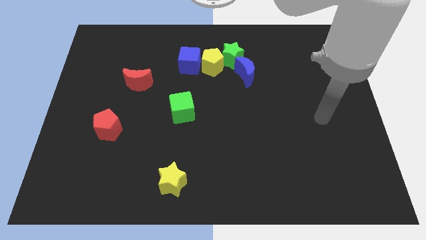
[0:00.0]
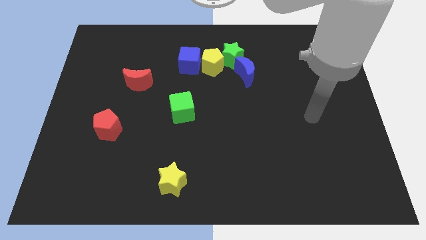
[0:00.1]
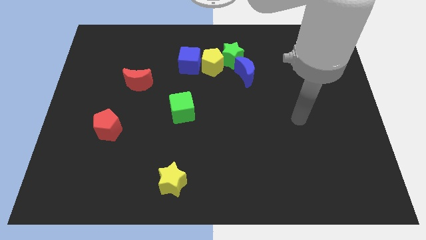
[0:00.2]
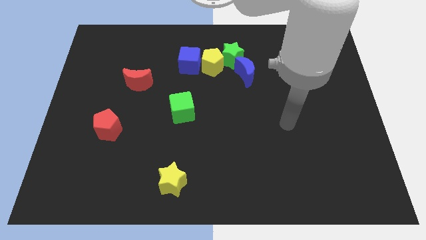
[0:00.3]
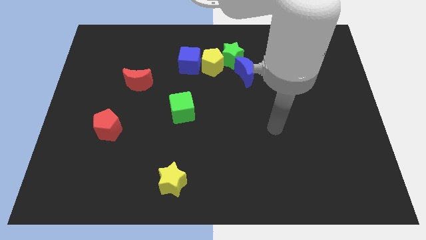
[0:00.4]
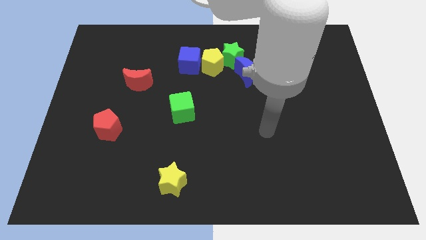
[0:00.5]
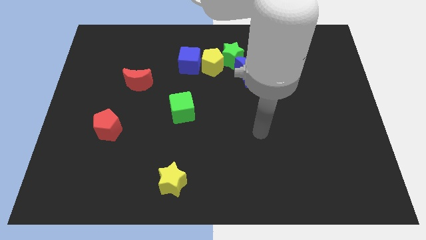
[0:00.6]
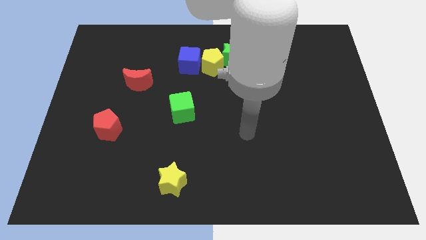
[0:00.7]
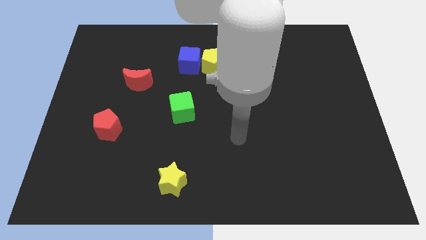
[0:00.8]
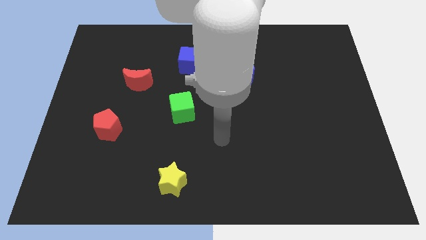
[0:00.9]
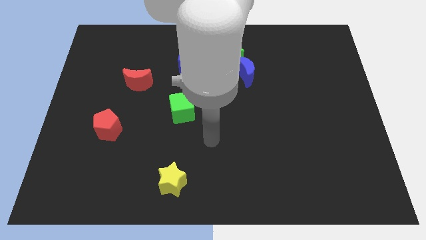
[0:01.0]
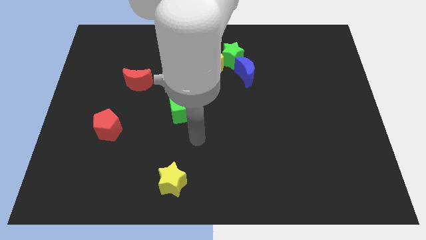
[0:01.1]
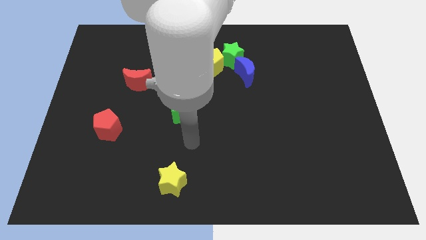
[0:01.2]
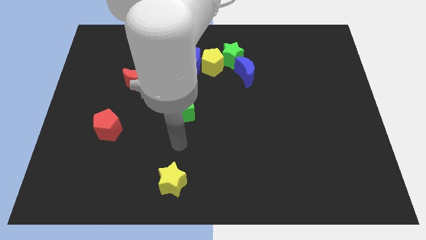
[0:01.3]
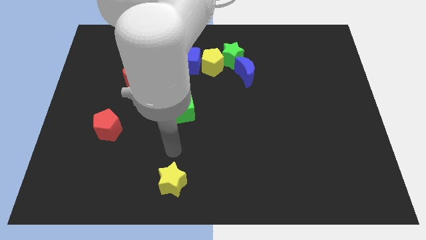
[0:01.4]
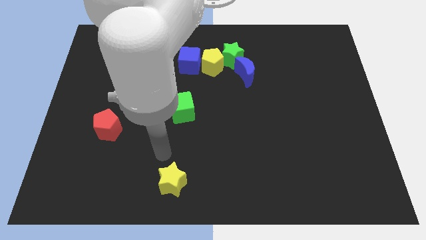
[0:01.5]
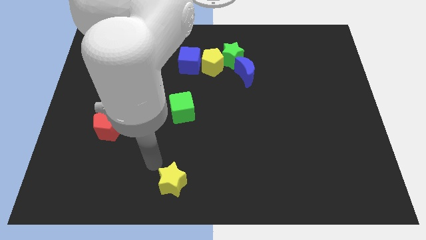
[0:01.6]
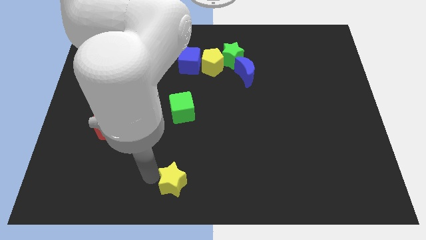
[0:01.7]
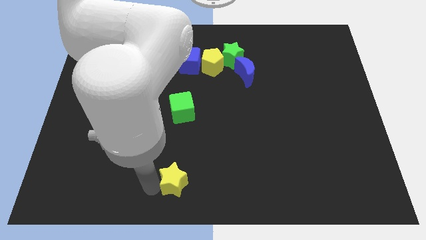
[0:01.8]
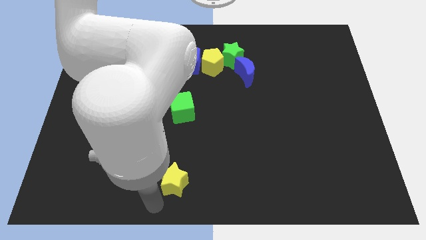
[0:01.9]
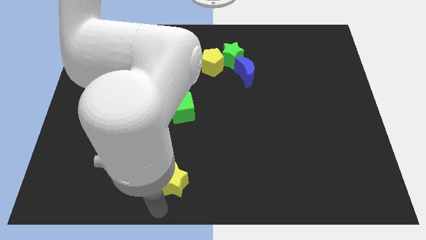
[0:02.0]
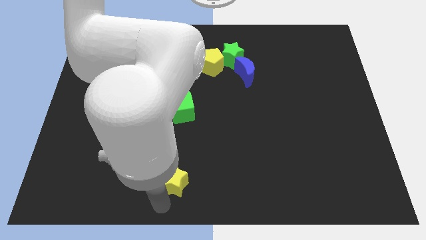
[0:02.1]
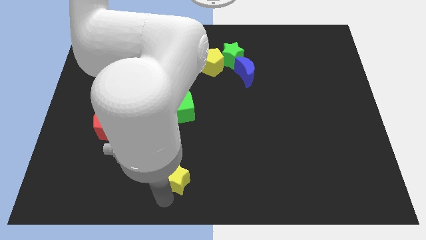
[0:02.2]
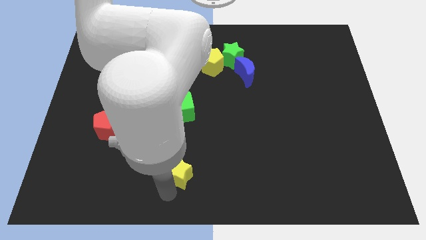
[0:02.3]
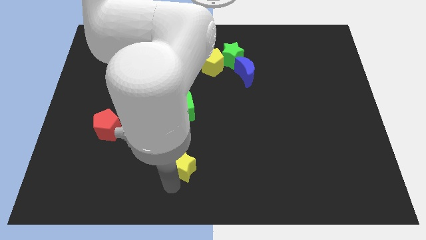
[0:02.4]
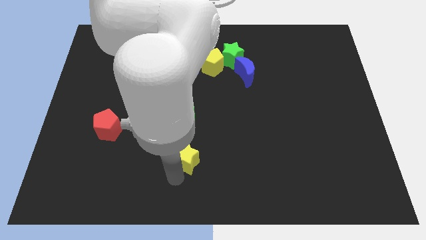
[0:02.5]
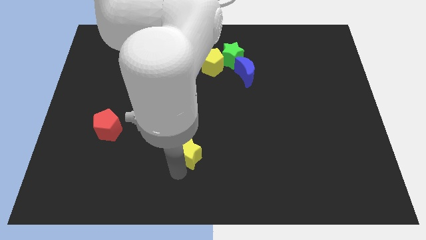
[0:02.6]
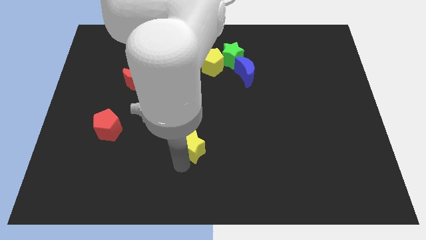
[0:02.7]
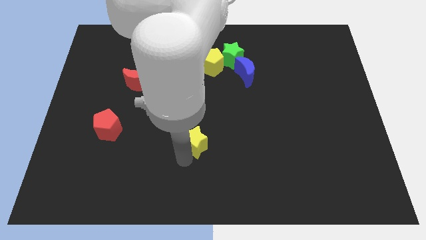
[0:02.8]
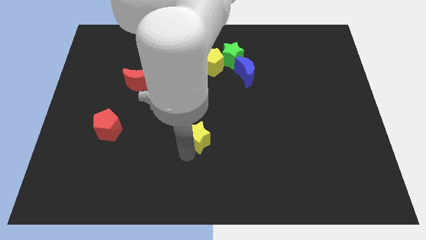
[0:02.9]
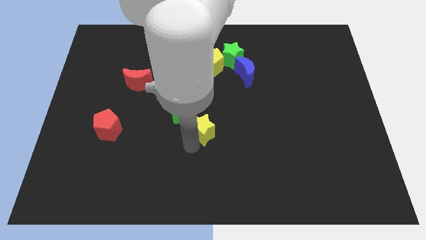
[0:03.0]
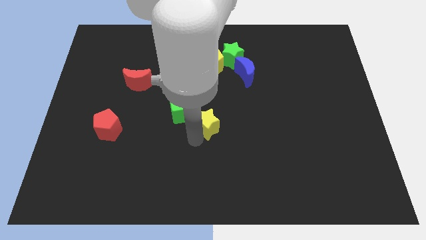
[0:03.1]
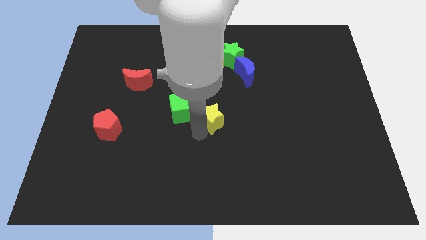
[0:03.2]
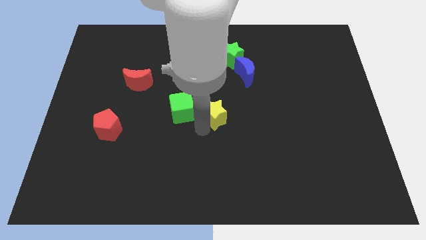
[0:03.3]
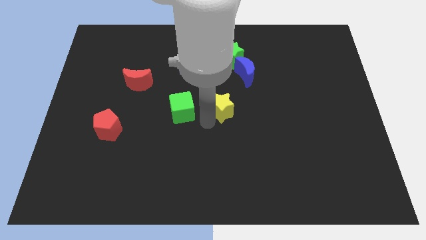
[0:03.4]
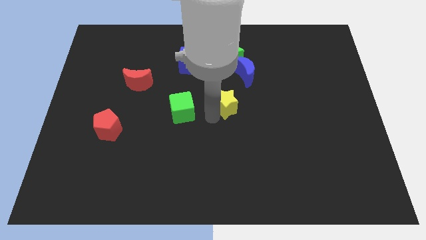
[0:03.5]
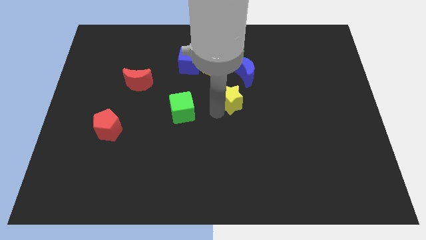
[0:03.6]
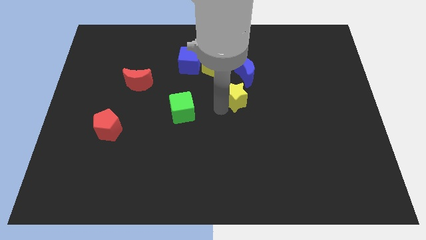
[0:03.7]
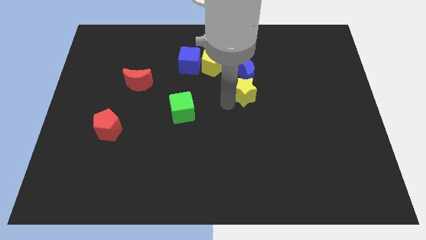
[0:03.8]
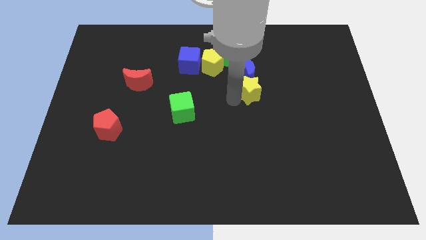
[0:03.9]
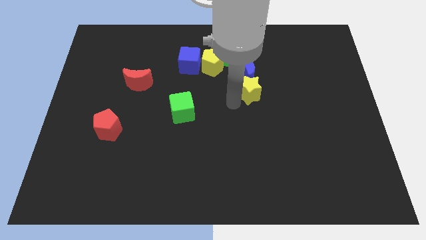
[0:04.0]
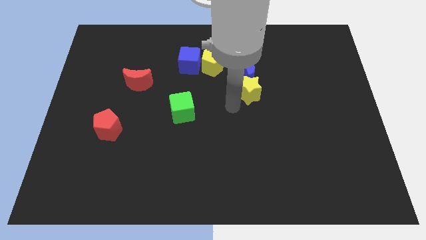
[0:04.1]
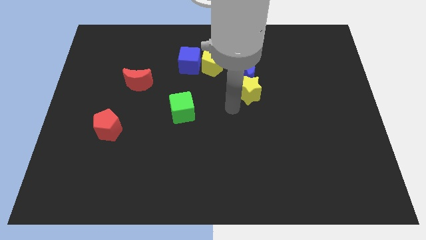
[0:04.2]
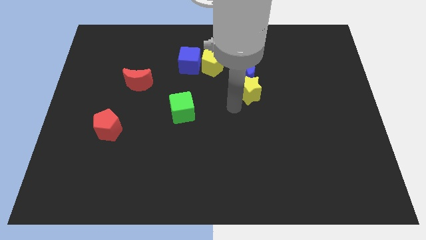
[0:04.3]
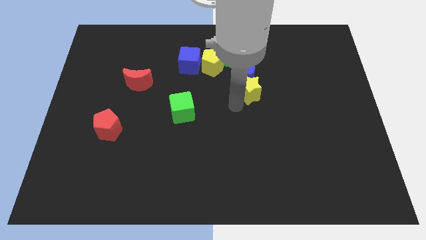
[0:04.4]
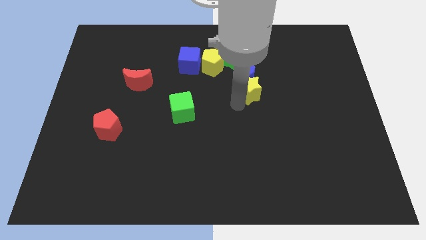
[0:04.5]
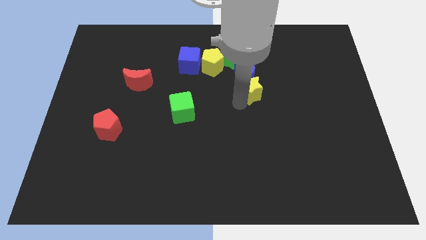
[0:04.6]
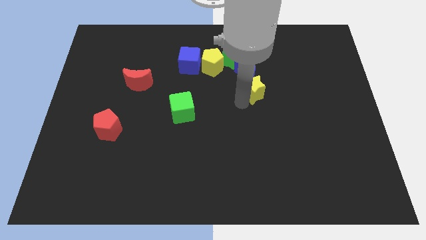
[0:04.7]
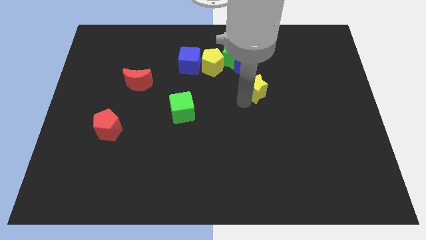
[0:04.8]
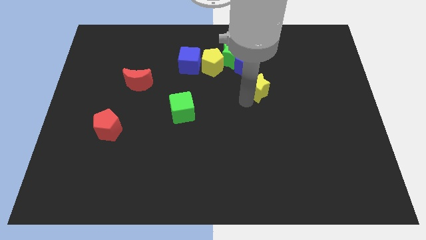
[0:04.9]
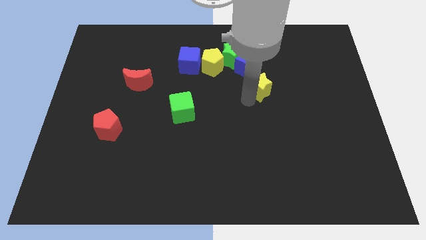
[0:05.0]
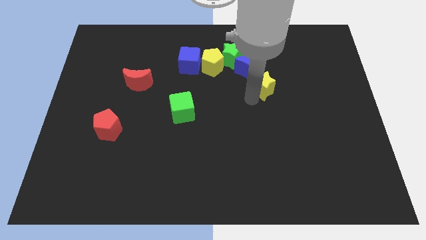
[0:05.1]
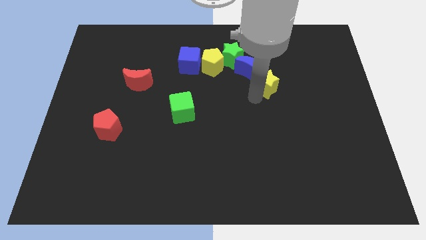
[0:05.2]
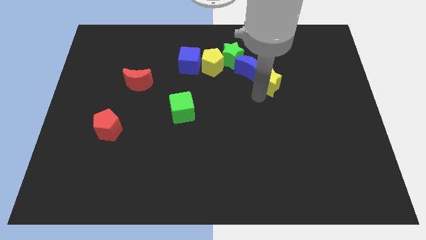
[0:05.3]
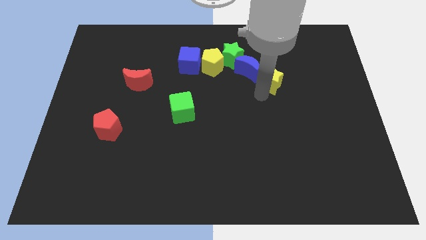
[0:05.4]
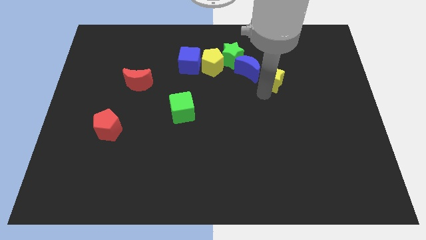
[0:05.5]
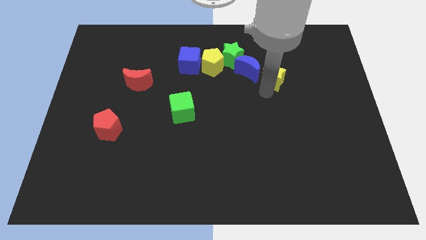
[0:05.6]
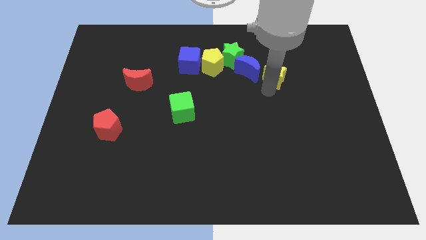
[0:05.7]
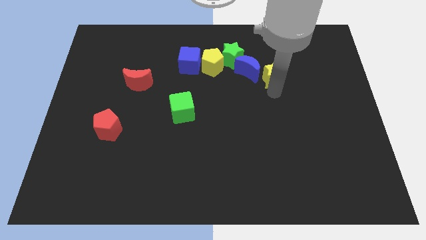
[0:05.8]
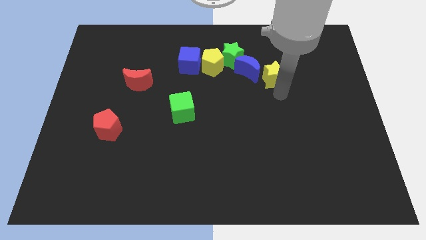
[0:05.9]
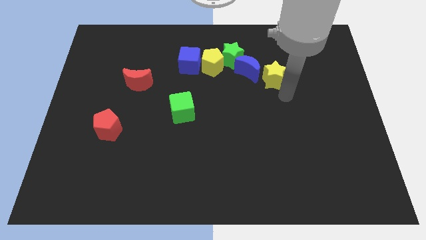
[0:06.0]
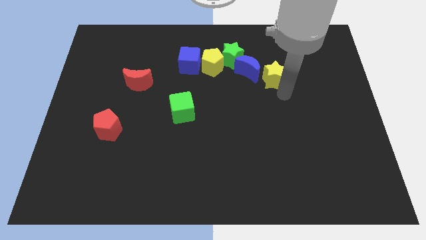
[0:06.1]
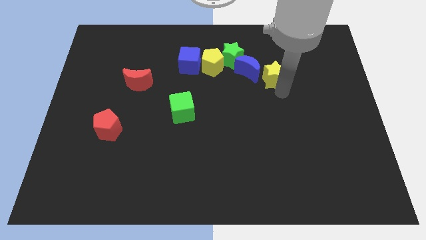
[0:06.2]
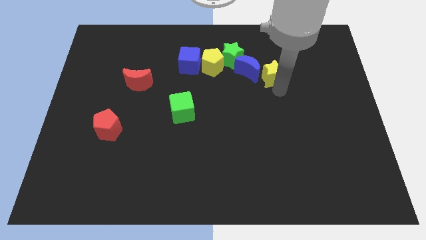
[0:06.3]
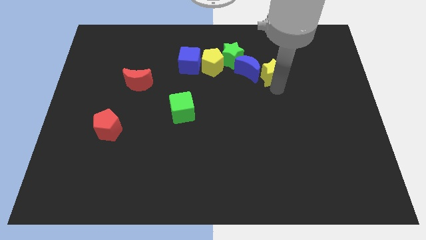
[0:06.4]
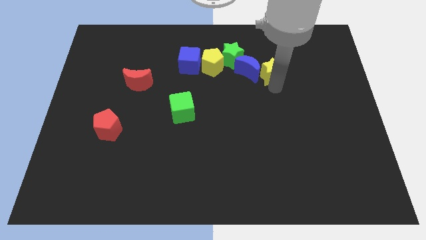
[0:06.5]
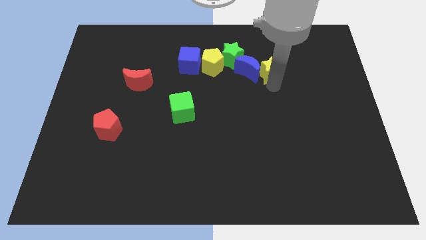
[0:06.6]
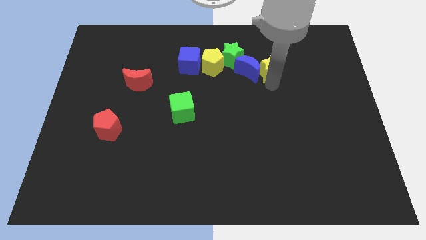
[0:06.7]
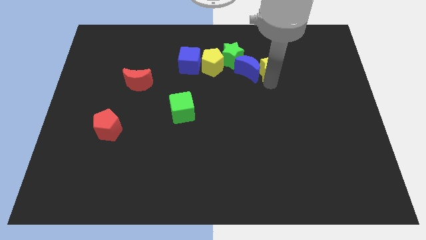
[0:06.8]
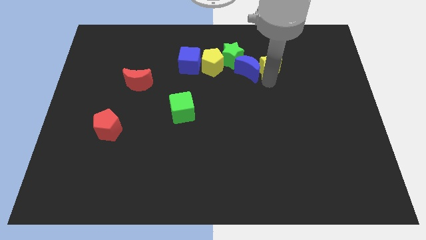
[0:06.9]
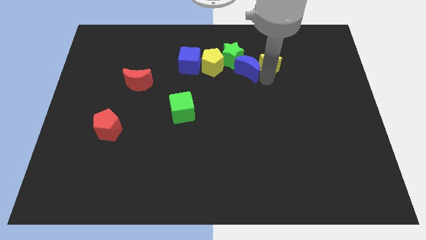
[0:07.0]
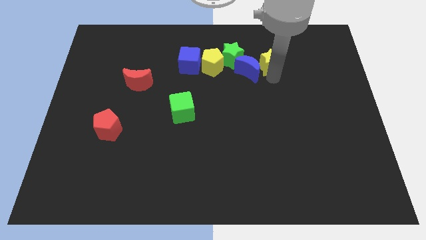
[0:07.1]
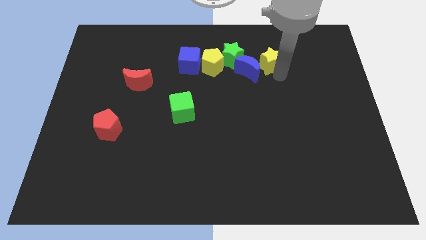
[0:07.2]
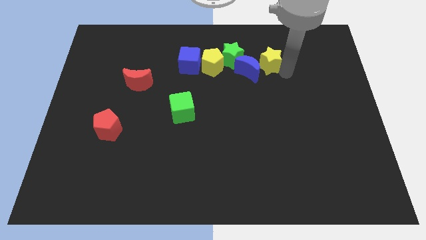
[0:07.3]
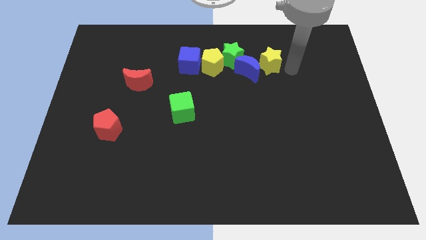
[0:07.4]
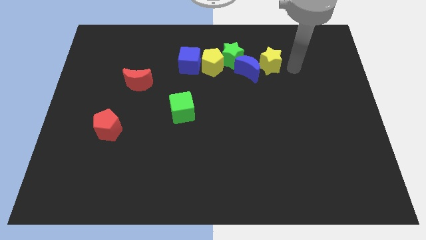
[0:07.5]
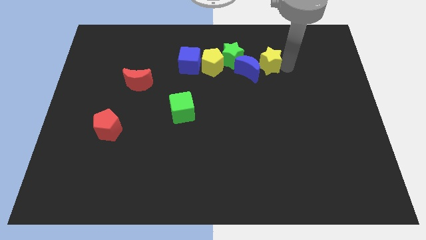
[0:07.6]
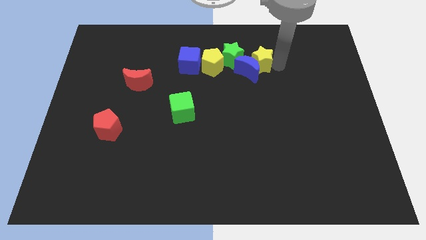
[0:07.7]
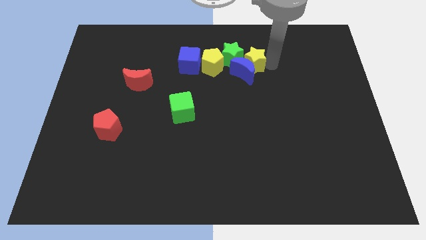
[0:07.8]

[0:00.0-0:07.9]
move the yellow star to the green star
